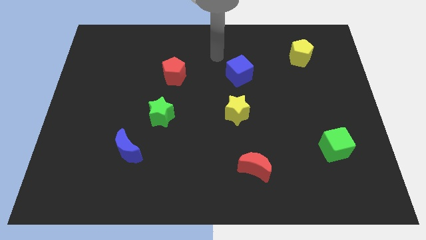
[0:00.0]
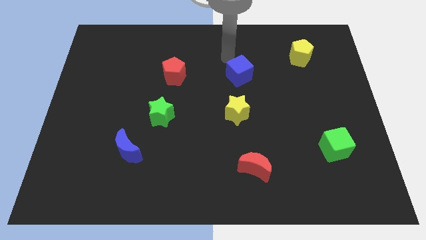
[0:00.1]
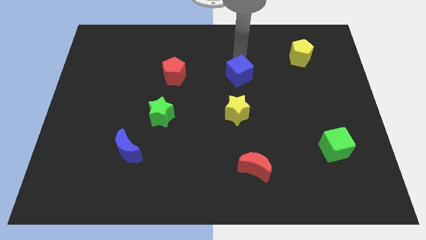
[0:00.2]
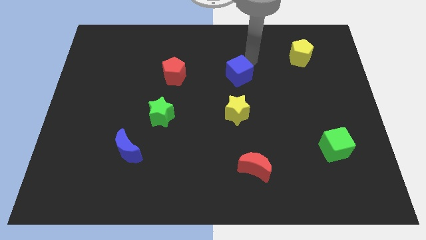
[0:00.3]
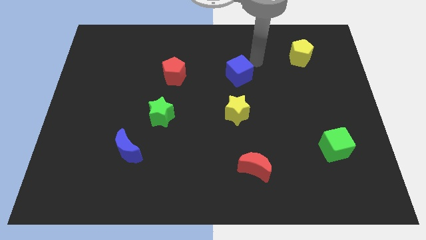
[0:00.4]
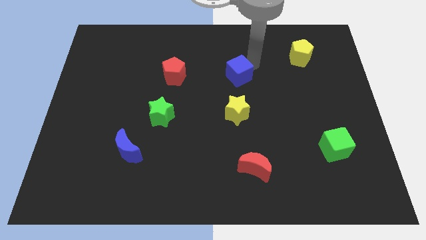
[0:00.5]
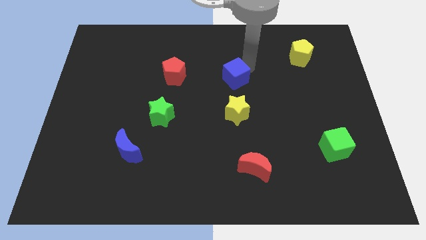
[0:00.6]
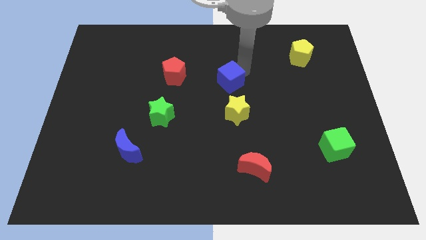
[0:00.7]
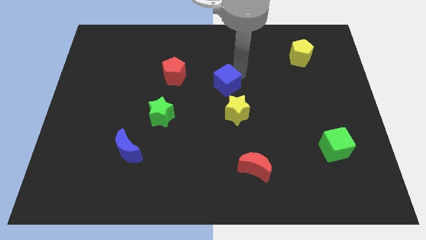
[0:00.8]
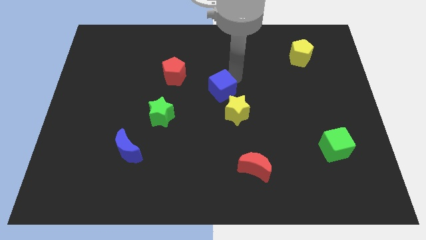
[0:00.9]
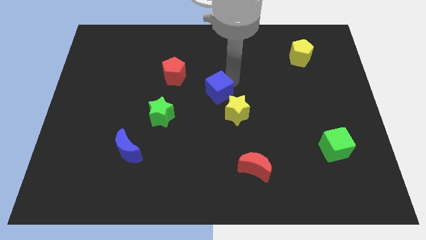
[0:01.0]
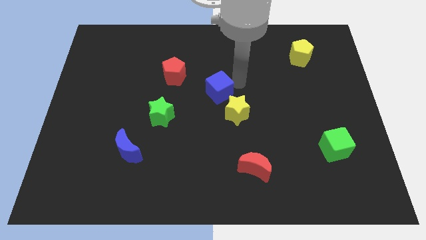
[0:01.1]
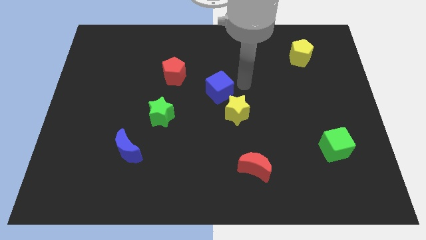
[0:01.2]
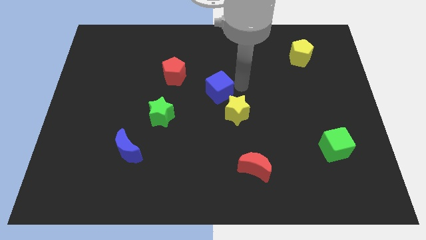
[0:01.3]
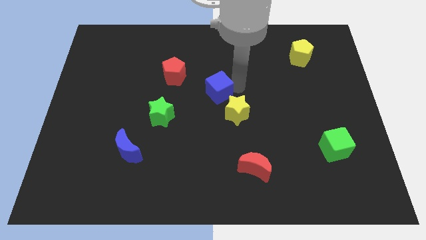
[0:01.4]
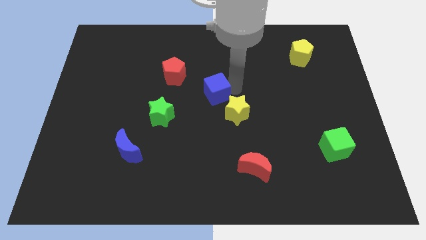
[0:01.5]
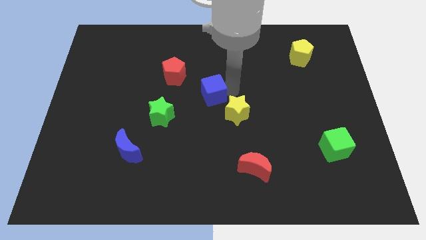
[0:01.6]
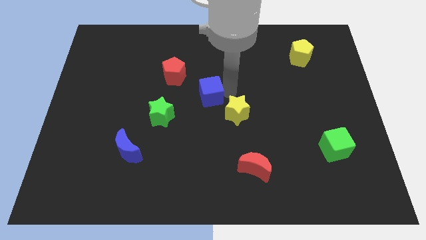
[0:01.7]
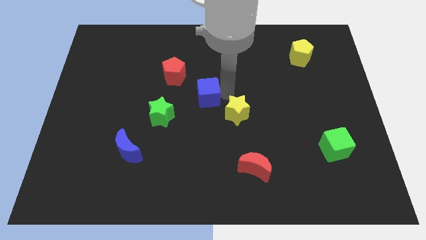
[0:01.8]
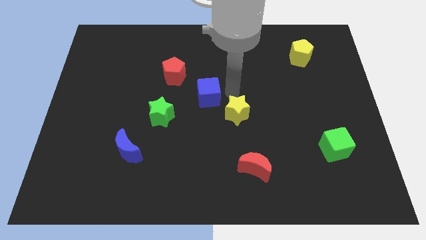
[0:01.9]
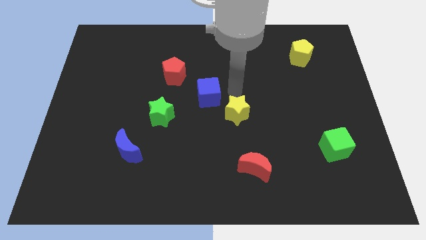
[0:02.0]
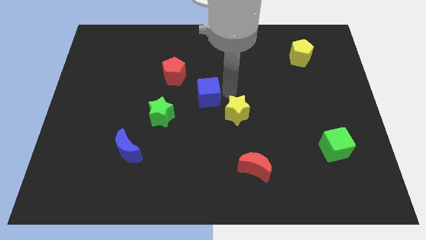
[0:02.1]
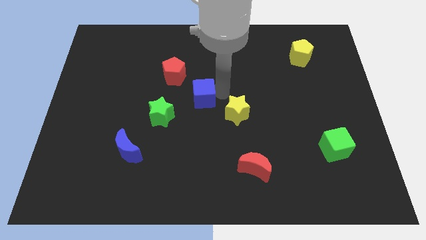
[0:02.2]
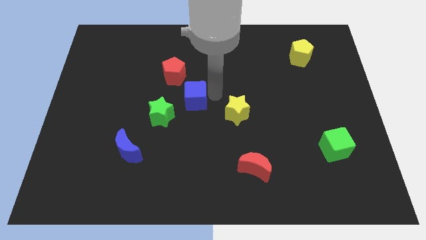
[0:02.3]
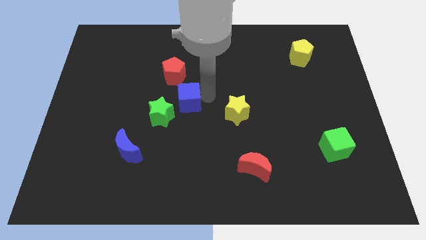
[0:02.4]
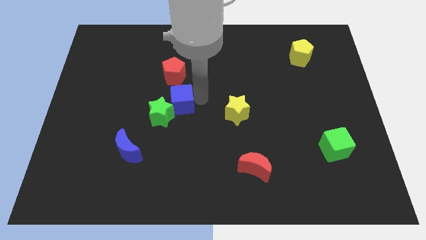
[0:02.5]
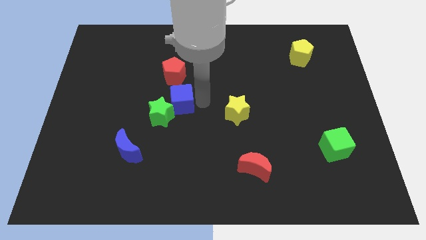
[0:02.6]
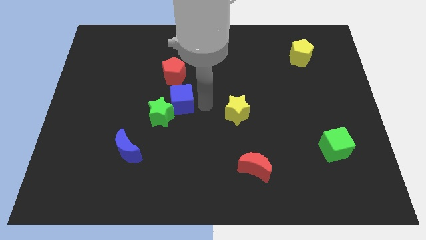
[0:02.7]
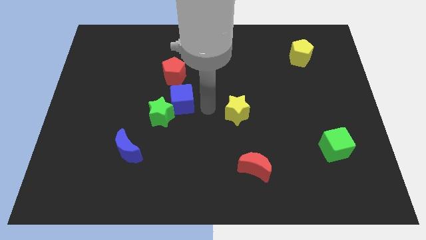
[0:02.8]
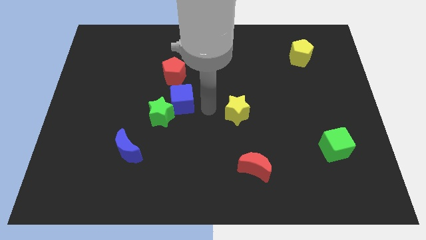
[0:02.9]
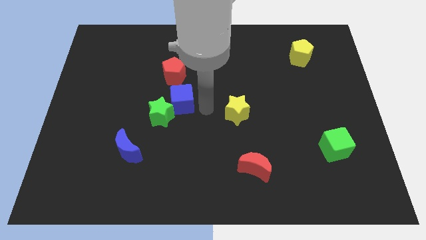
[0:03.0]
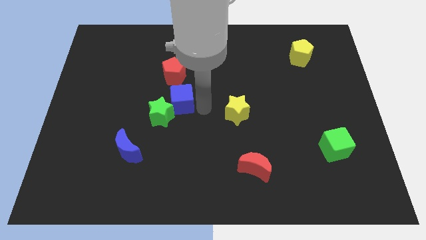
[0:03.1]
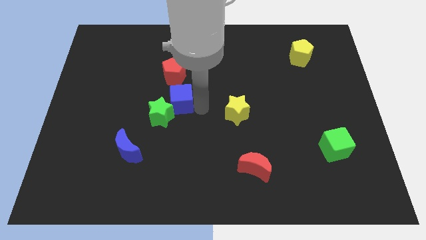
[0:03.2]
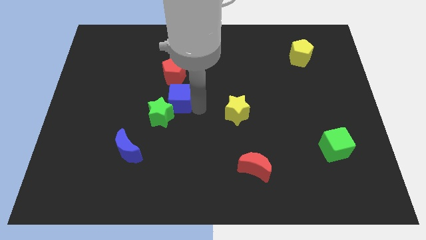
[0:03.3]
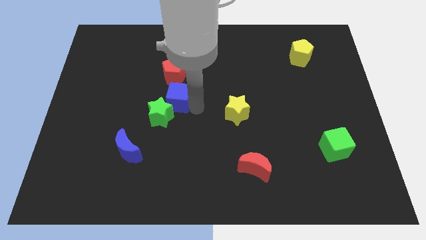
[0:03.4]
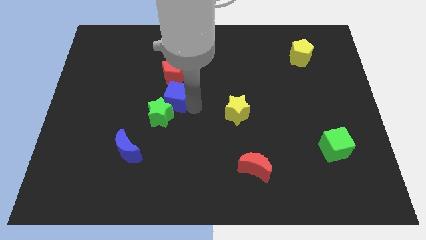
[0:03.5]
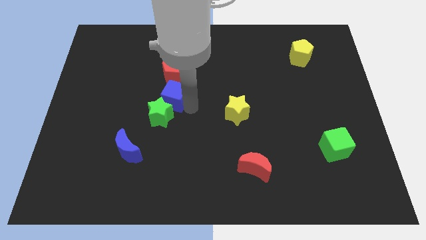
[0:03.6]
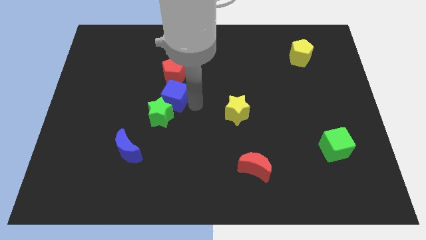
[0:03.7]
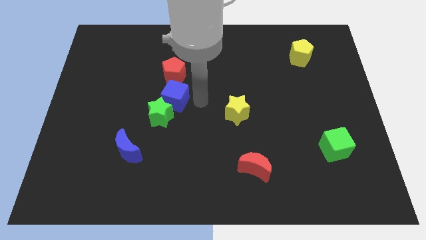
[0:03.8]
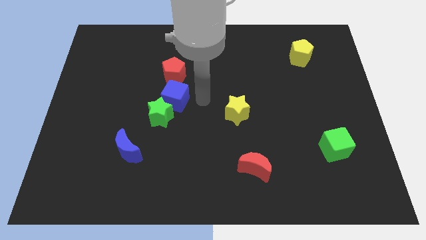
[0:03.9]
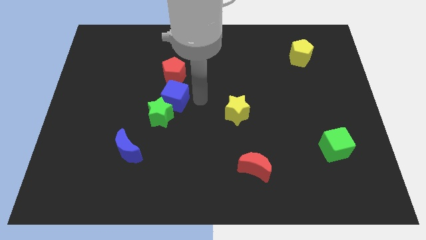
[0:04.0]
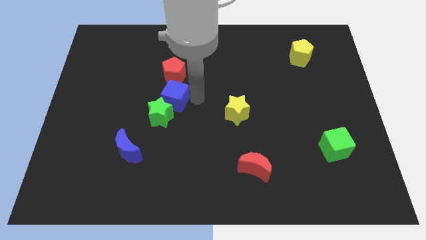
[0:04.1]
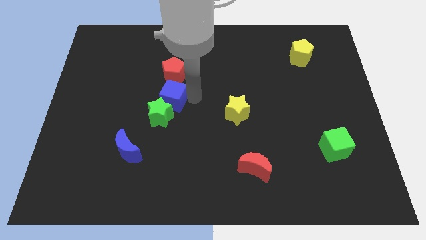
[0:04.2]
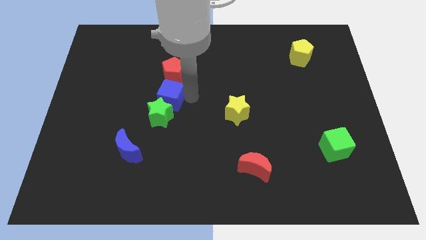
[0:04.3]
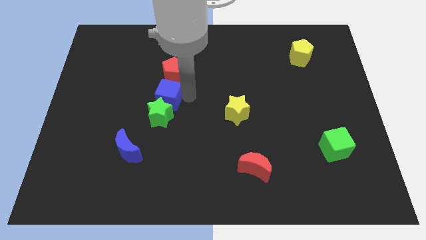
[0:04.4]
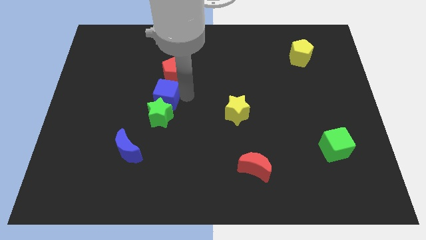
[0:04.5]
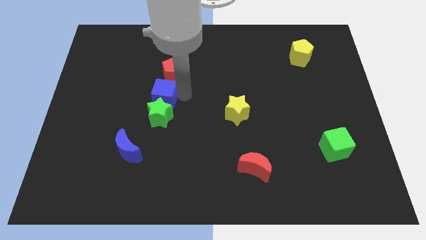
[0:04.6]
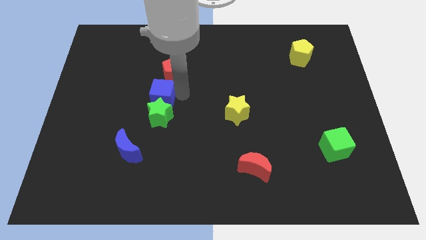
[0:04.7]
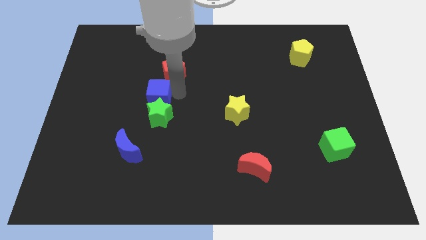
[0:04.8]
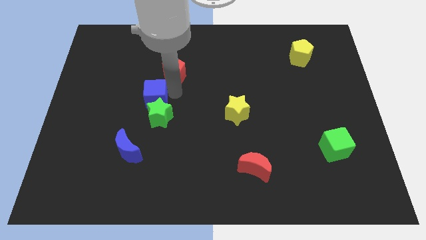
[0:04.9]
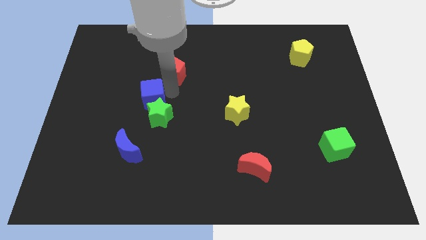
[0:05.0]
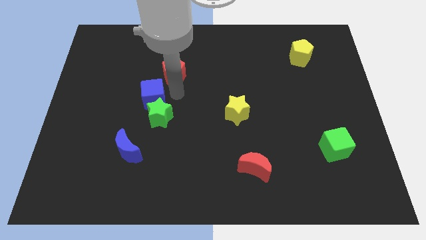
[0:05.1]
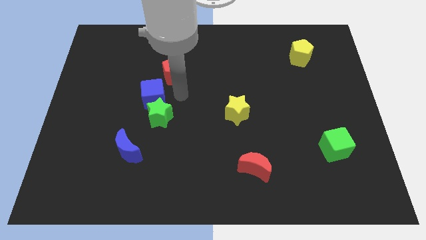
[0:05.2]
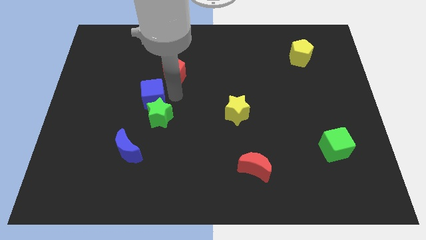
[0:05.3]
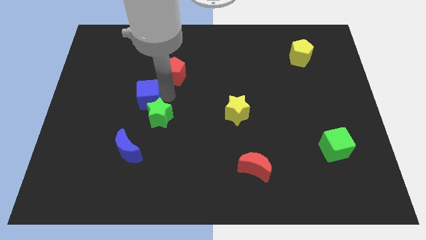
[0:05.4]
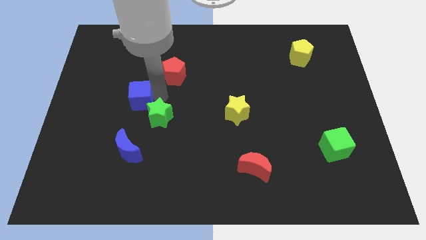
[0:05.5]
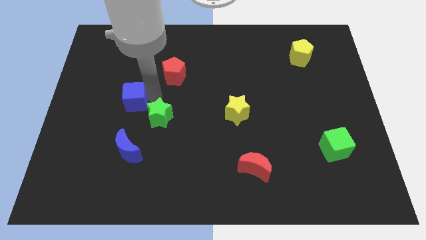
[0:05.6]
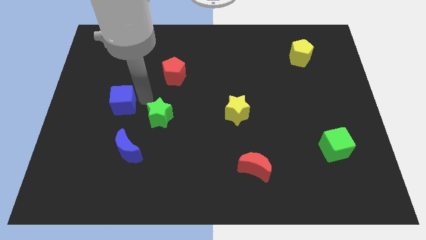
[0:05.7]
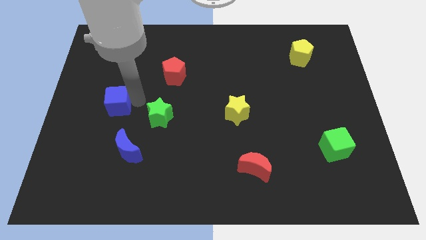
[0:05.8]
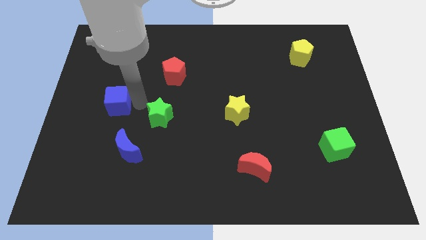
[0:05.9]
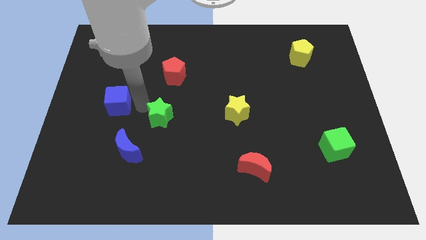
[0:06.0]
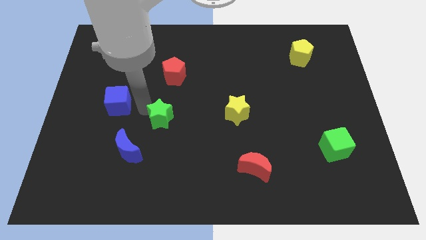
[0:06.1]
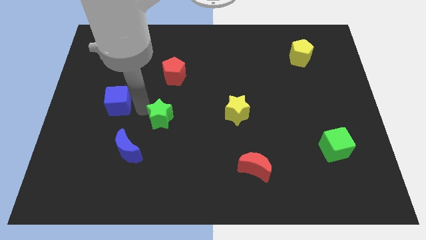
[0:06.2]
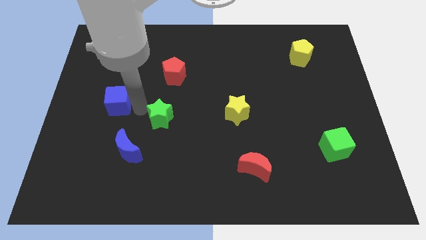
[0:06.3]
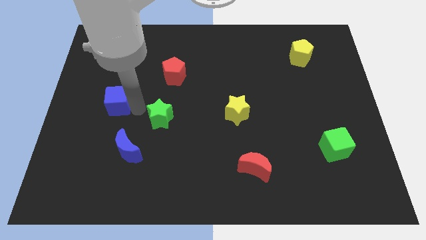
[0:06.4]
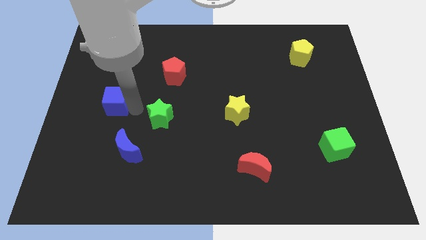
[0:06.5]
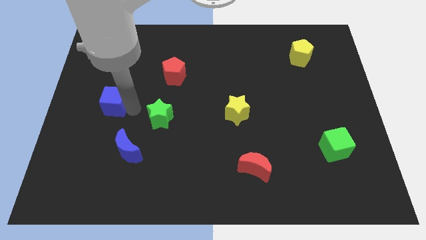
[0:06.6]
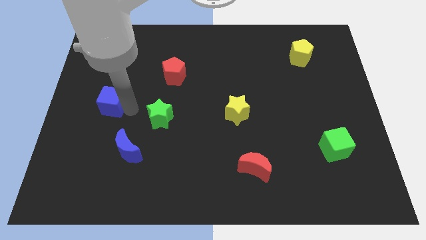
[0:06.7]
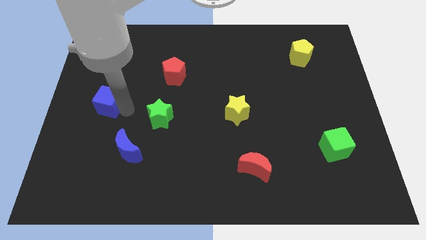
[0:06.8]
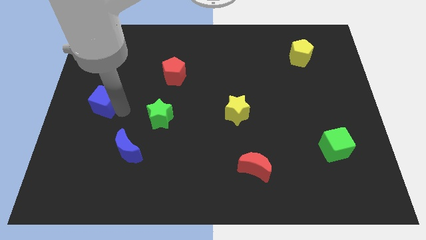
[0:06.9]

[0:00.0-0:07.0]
slide the blue cube to the center left
